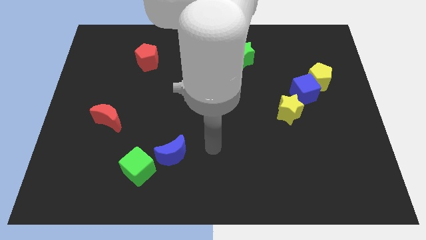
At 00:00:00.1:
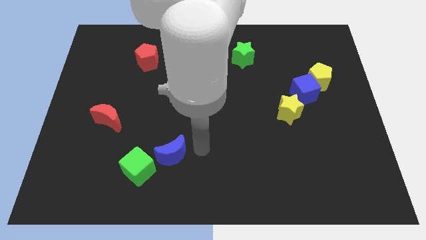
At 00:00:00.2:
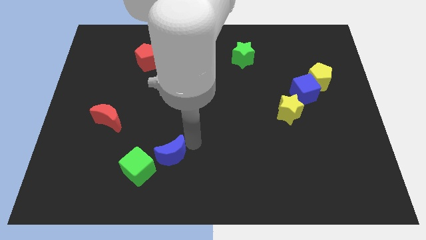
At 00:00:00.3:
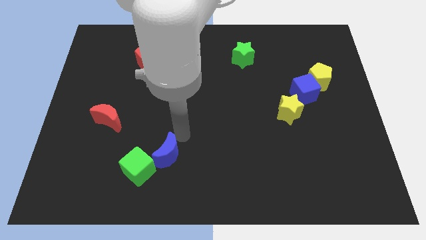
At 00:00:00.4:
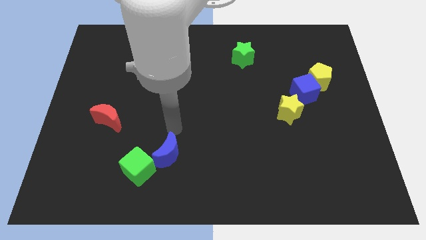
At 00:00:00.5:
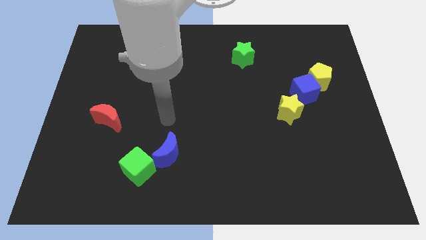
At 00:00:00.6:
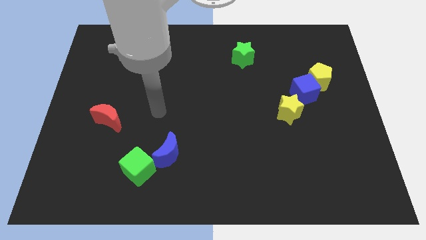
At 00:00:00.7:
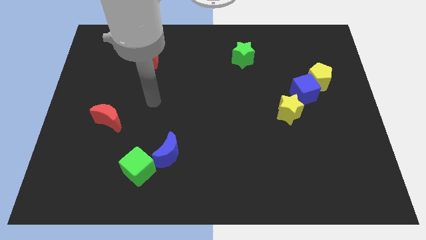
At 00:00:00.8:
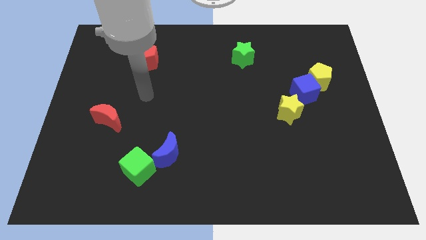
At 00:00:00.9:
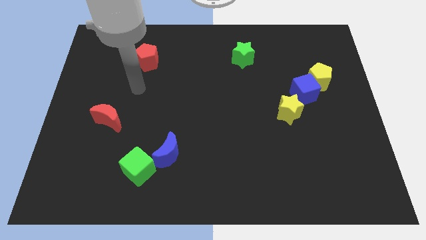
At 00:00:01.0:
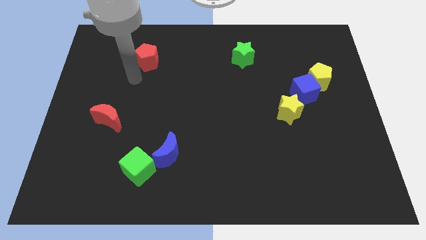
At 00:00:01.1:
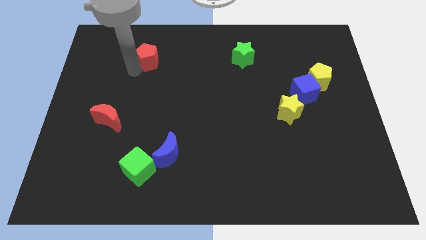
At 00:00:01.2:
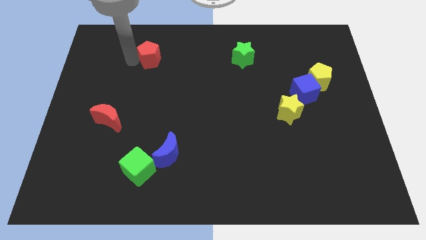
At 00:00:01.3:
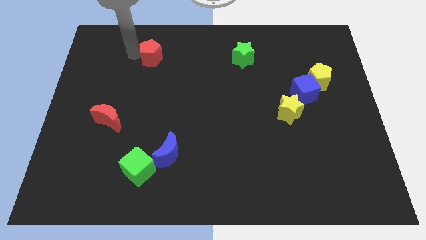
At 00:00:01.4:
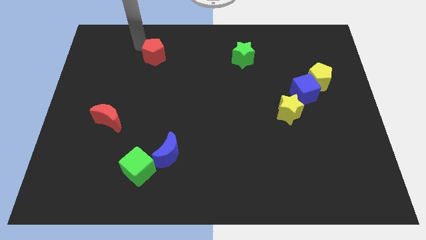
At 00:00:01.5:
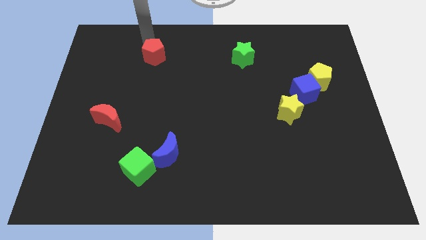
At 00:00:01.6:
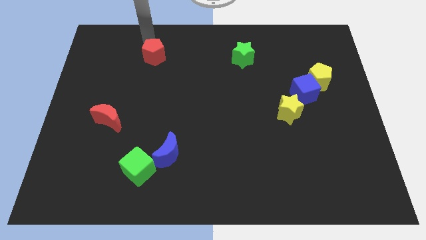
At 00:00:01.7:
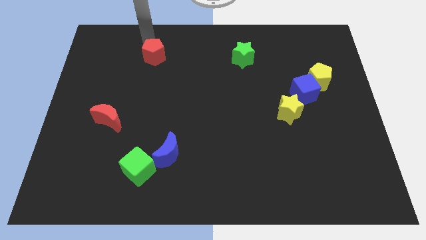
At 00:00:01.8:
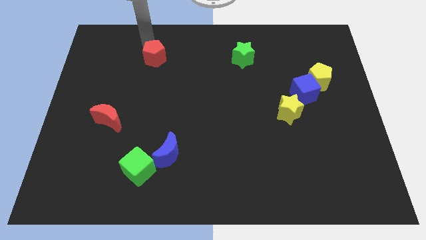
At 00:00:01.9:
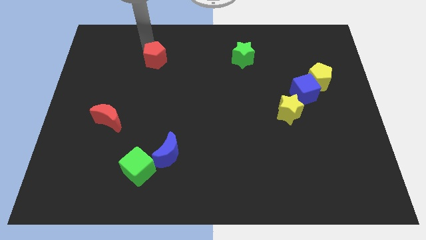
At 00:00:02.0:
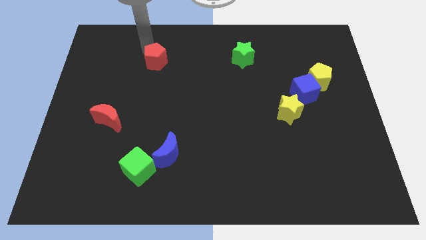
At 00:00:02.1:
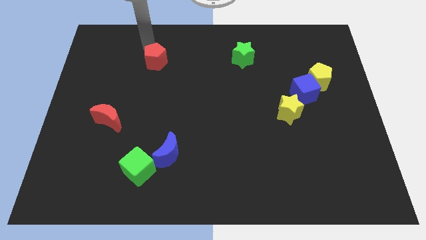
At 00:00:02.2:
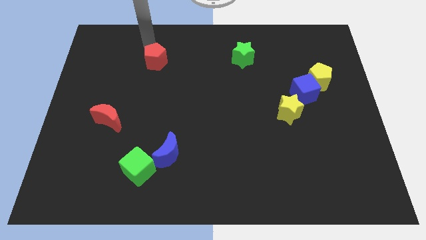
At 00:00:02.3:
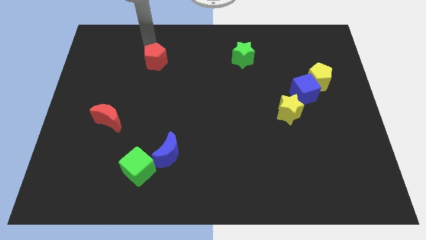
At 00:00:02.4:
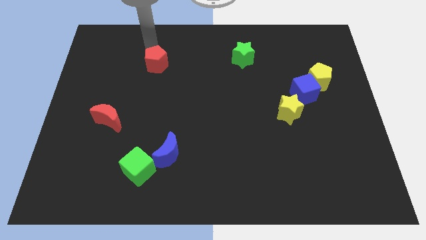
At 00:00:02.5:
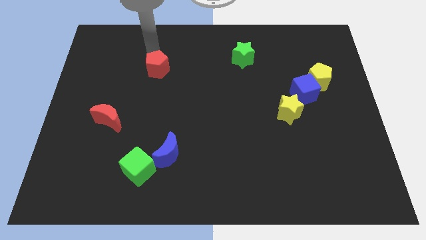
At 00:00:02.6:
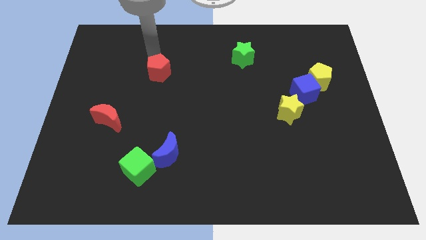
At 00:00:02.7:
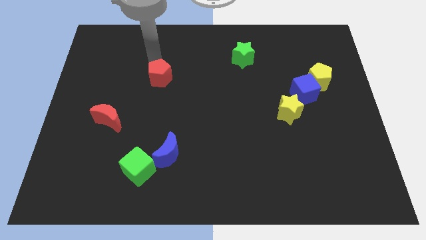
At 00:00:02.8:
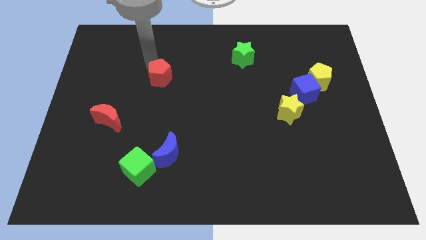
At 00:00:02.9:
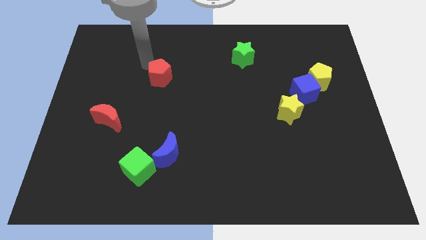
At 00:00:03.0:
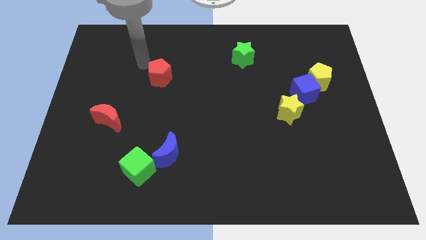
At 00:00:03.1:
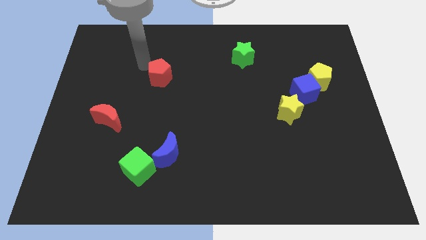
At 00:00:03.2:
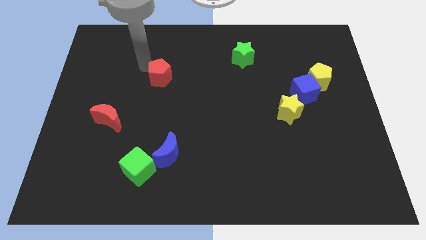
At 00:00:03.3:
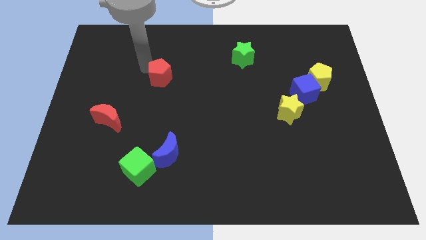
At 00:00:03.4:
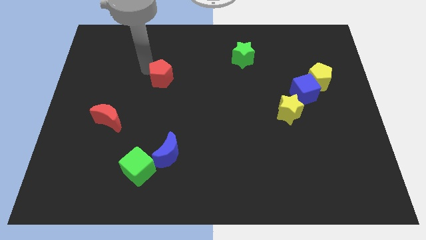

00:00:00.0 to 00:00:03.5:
move the red pentagon downwards and right a little

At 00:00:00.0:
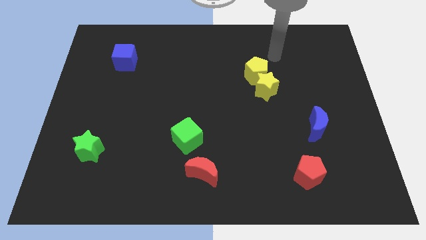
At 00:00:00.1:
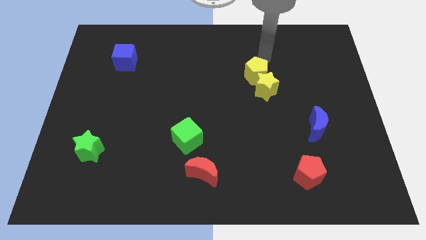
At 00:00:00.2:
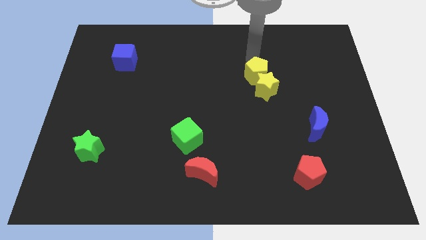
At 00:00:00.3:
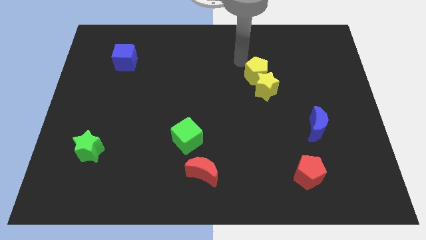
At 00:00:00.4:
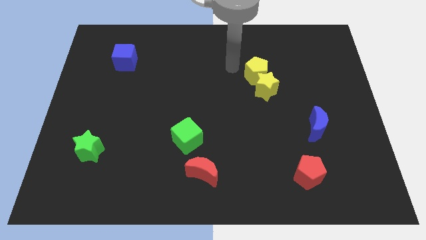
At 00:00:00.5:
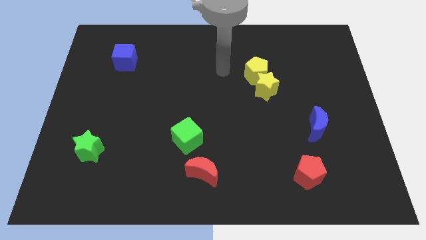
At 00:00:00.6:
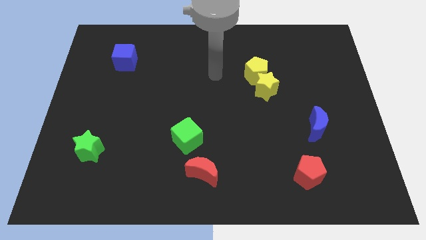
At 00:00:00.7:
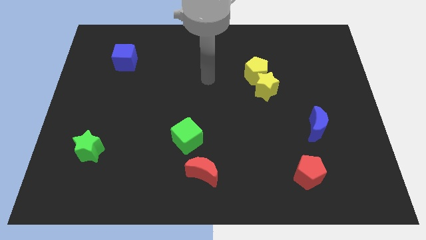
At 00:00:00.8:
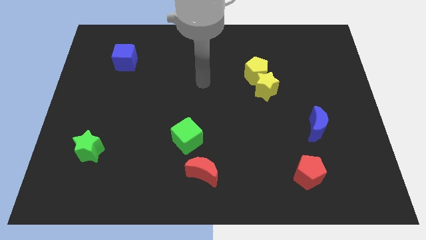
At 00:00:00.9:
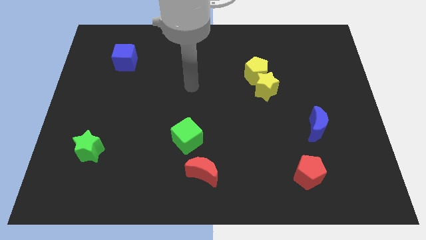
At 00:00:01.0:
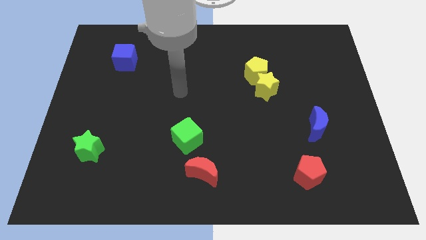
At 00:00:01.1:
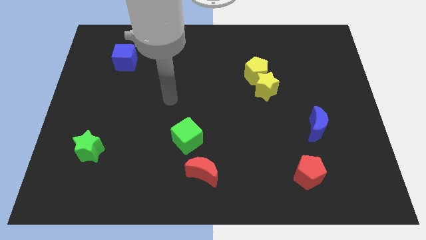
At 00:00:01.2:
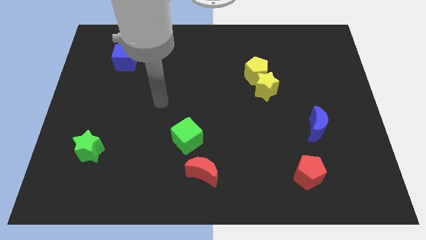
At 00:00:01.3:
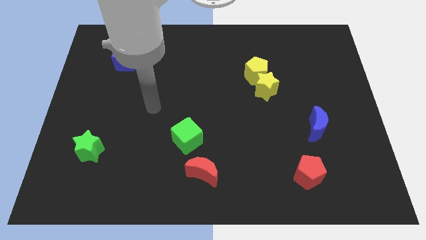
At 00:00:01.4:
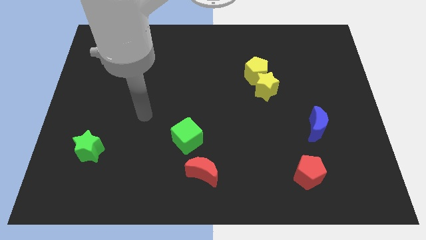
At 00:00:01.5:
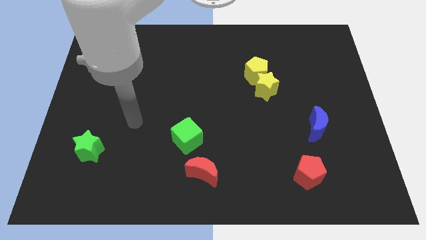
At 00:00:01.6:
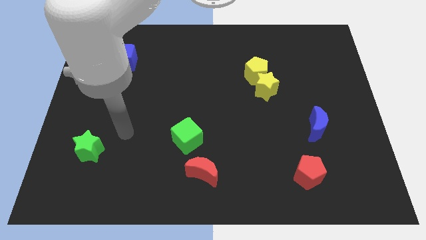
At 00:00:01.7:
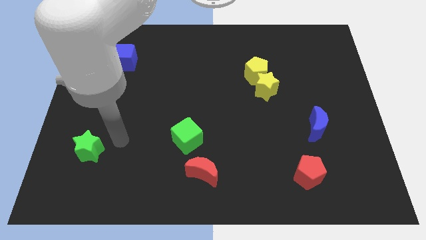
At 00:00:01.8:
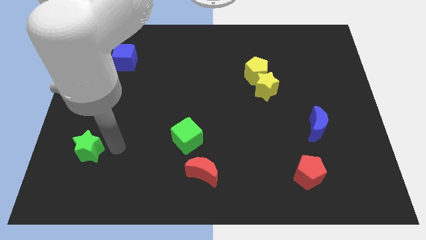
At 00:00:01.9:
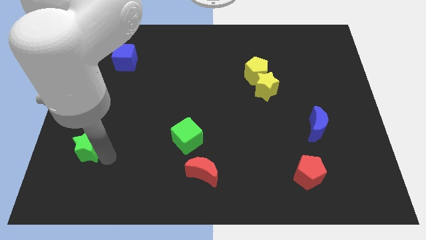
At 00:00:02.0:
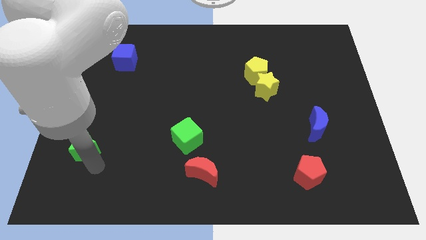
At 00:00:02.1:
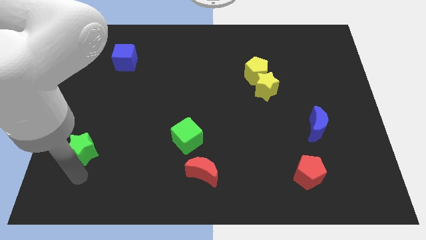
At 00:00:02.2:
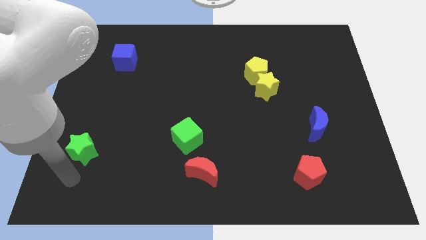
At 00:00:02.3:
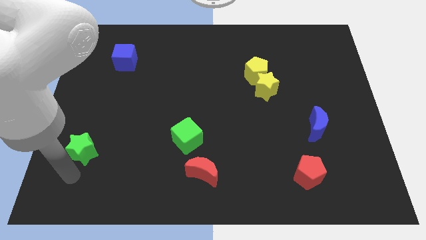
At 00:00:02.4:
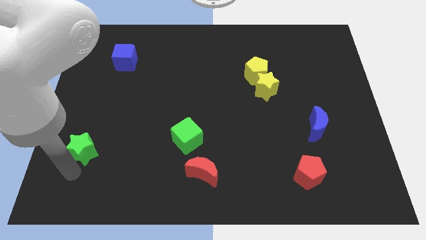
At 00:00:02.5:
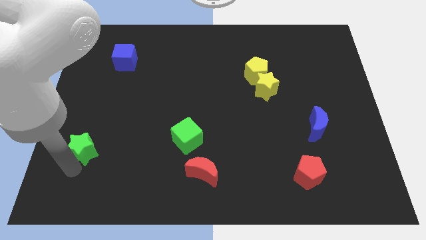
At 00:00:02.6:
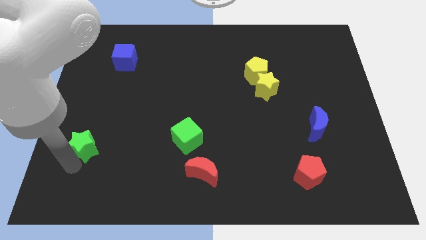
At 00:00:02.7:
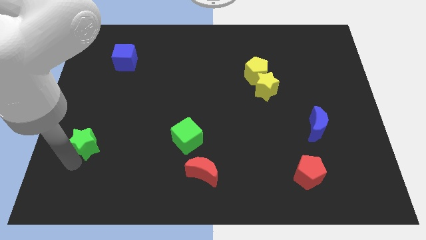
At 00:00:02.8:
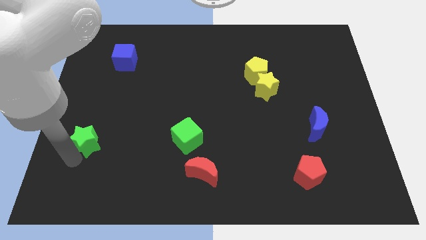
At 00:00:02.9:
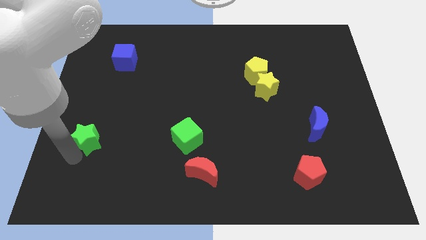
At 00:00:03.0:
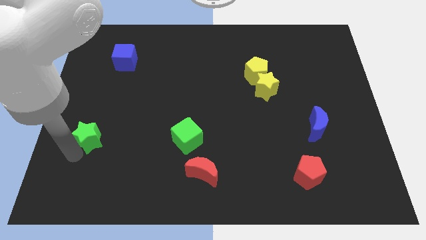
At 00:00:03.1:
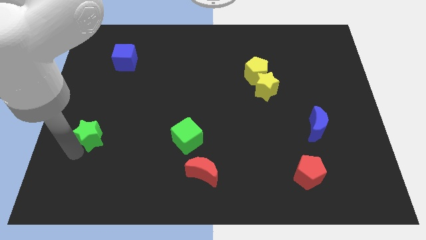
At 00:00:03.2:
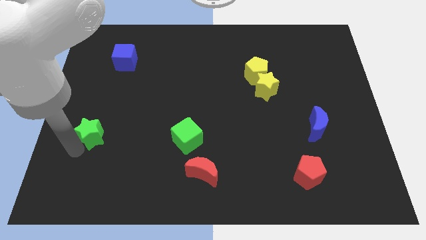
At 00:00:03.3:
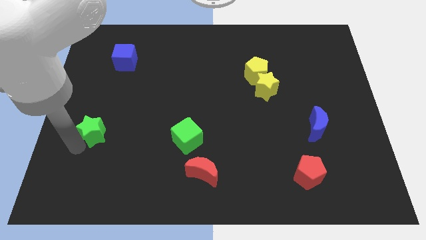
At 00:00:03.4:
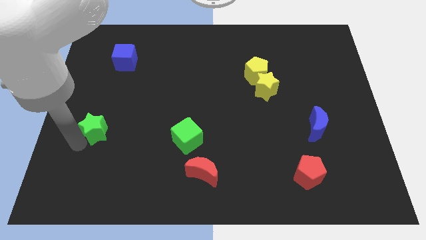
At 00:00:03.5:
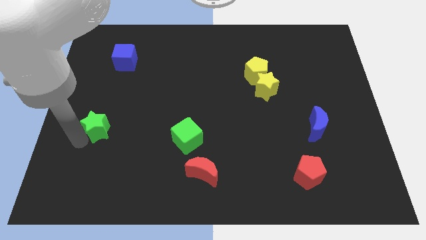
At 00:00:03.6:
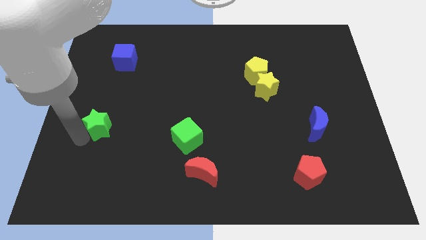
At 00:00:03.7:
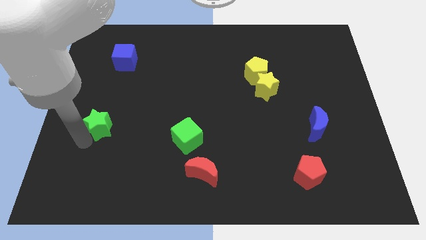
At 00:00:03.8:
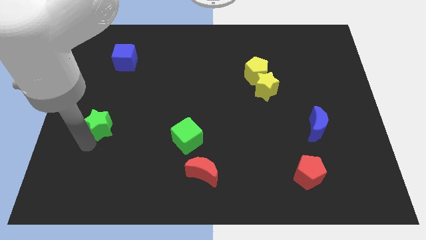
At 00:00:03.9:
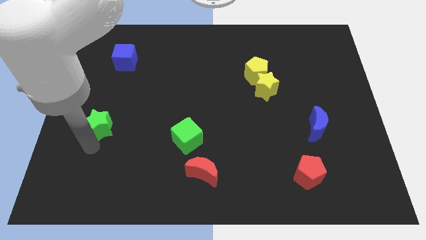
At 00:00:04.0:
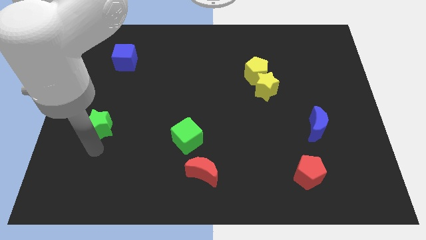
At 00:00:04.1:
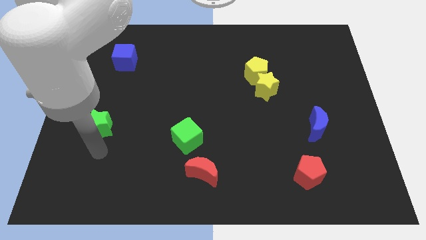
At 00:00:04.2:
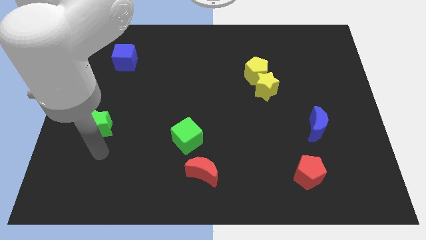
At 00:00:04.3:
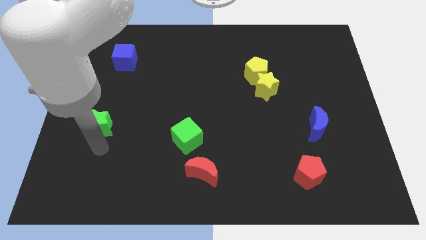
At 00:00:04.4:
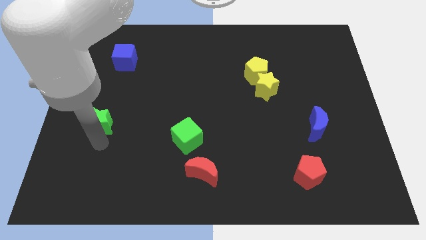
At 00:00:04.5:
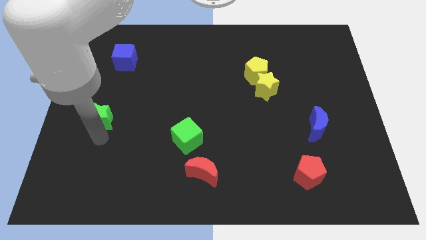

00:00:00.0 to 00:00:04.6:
slightly move the green star up
